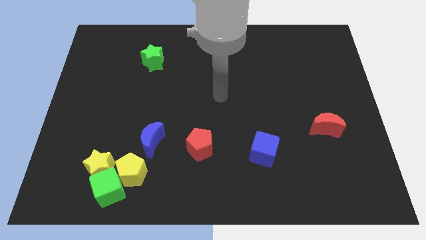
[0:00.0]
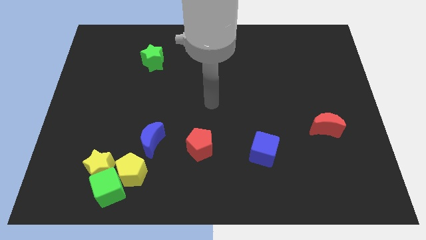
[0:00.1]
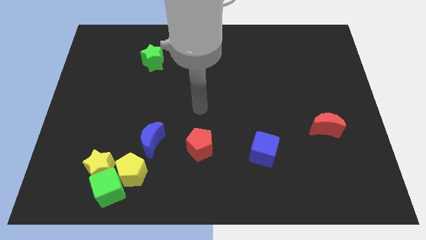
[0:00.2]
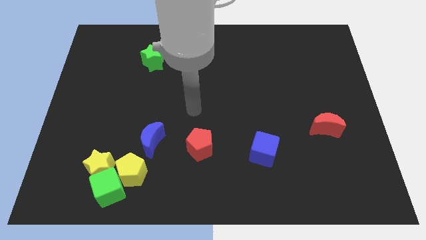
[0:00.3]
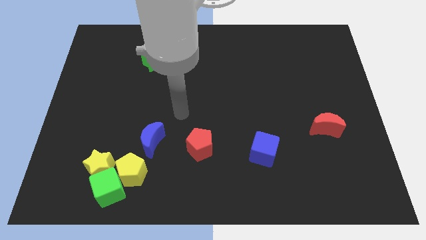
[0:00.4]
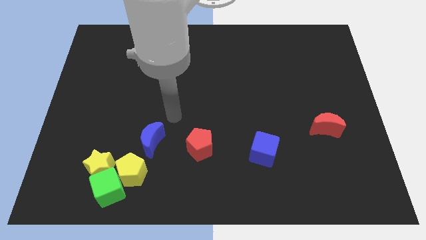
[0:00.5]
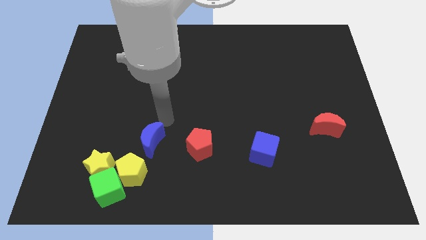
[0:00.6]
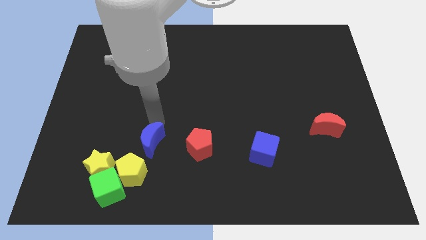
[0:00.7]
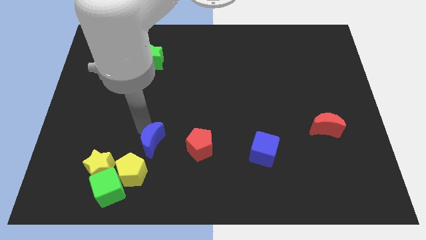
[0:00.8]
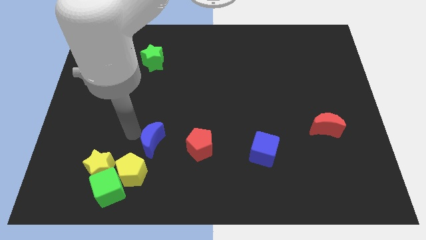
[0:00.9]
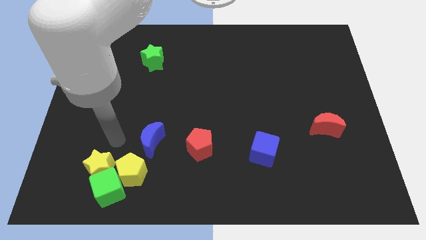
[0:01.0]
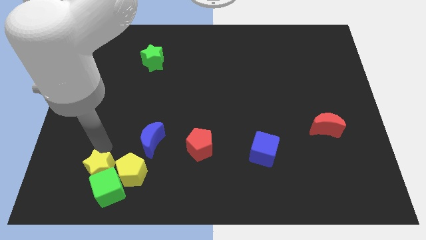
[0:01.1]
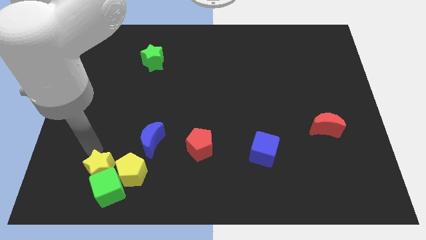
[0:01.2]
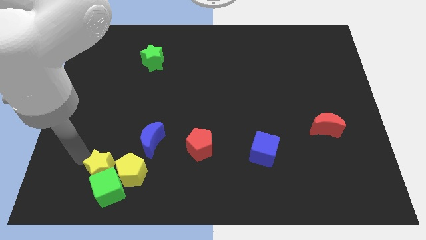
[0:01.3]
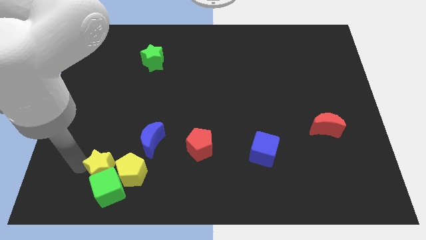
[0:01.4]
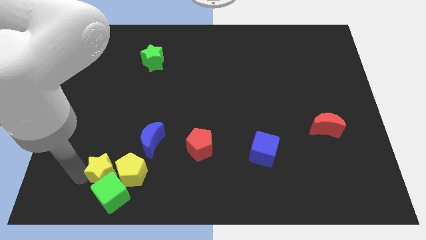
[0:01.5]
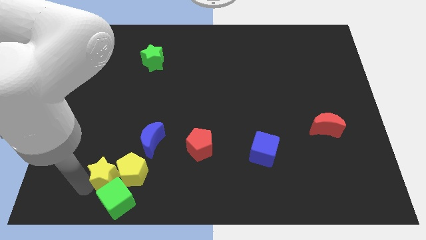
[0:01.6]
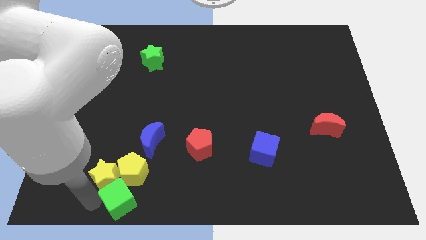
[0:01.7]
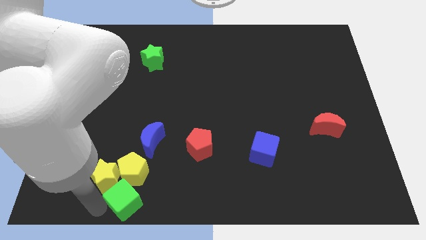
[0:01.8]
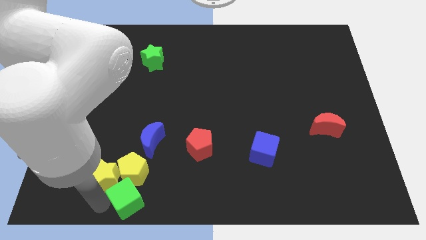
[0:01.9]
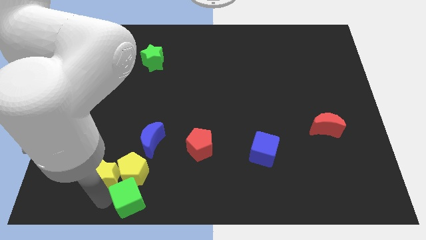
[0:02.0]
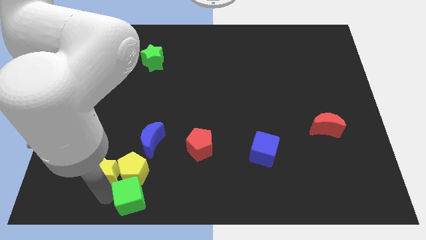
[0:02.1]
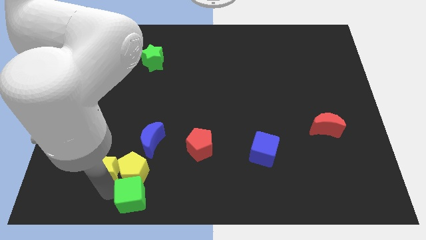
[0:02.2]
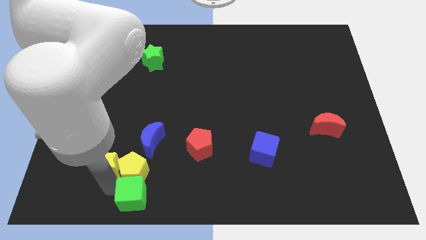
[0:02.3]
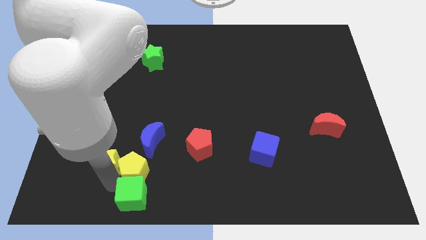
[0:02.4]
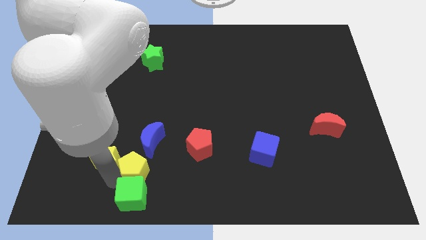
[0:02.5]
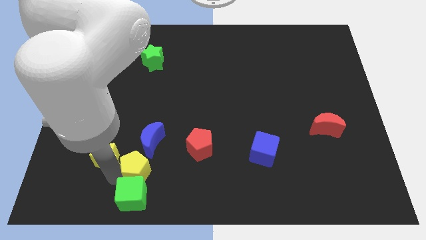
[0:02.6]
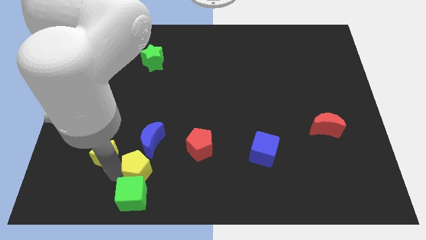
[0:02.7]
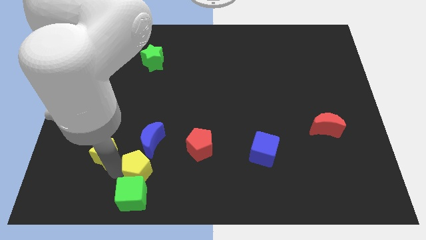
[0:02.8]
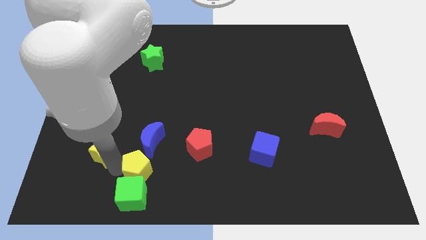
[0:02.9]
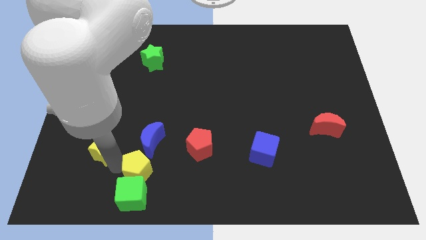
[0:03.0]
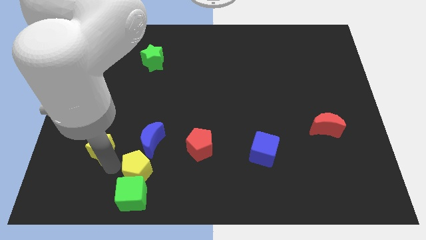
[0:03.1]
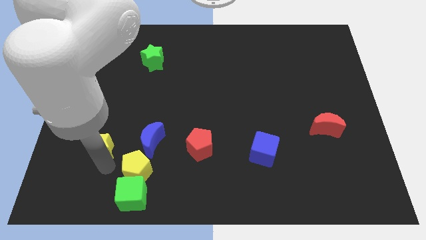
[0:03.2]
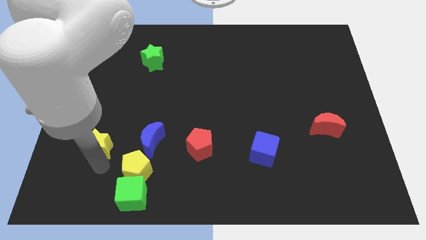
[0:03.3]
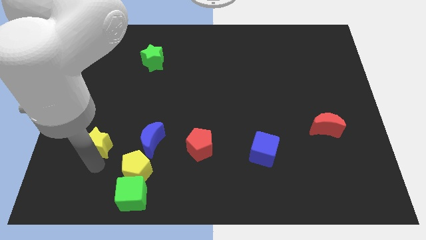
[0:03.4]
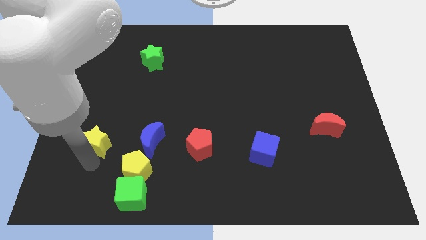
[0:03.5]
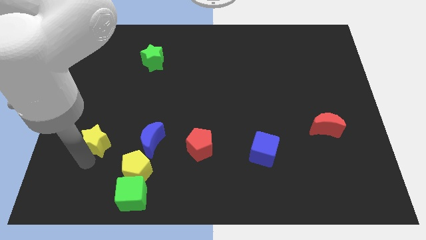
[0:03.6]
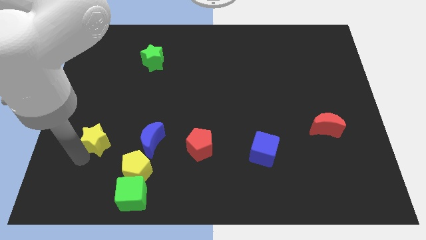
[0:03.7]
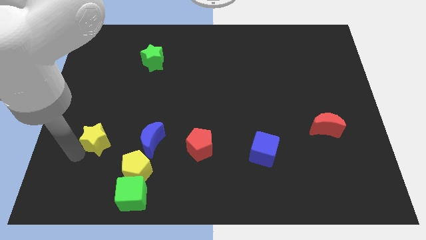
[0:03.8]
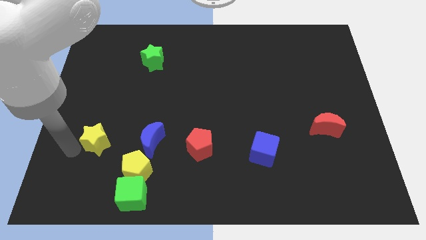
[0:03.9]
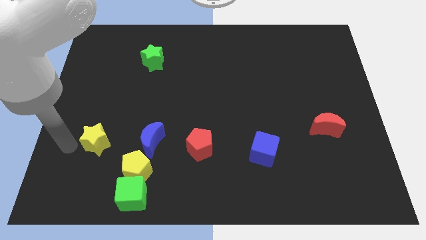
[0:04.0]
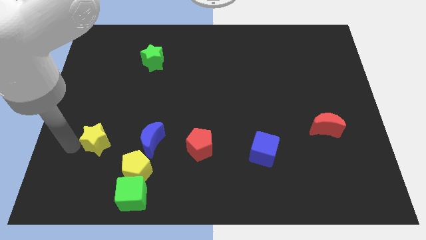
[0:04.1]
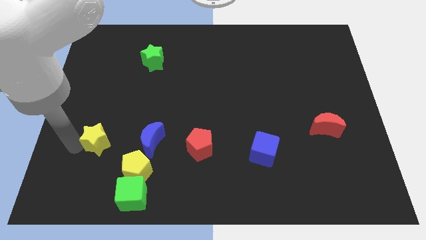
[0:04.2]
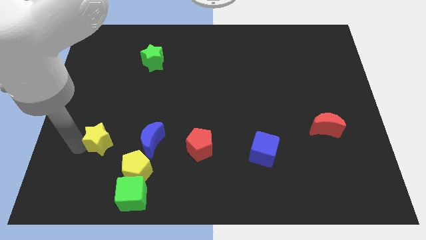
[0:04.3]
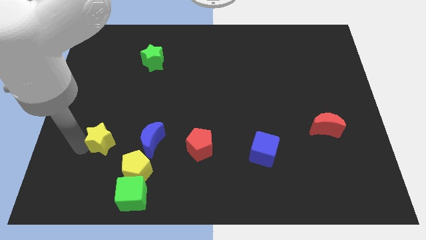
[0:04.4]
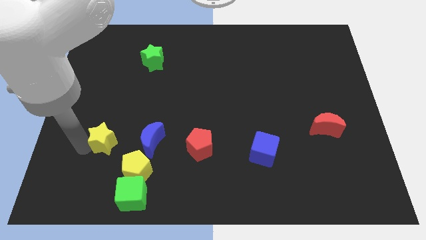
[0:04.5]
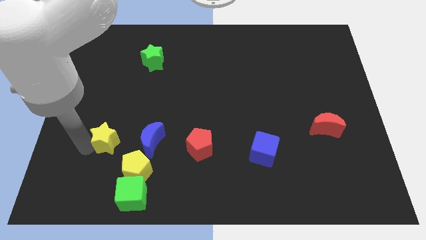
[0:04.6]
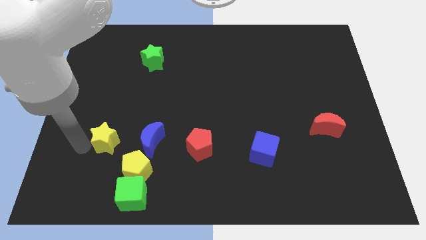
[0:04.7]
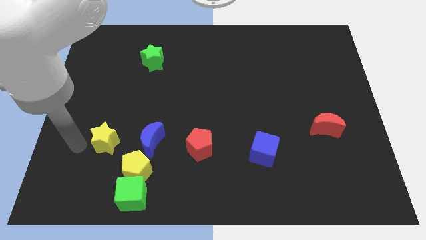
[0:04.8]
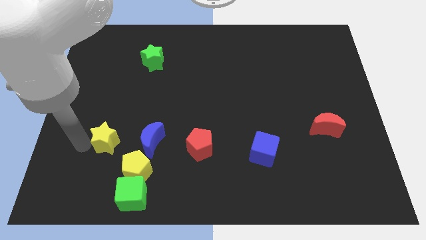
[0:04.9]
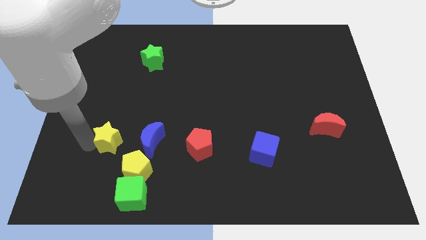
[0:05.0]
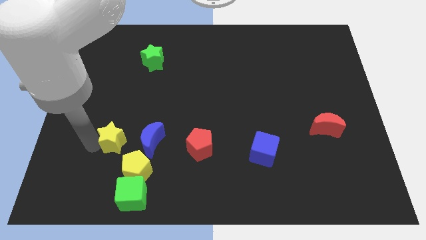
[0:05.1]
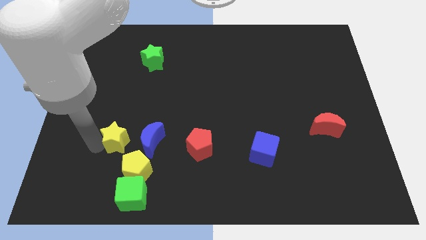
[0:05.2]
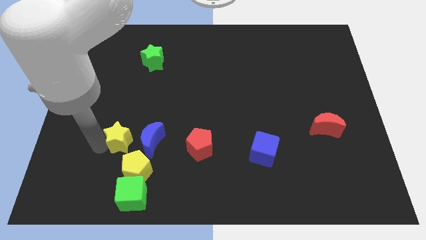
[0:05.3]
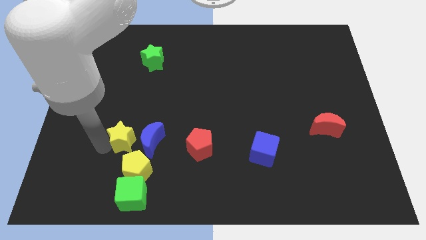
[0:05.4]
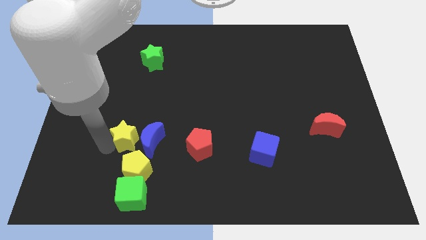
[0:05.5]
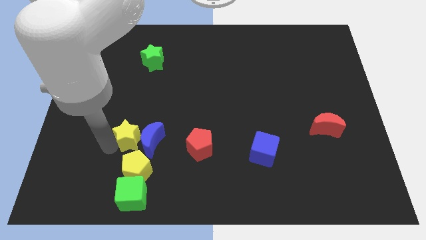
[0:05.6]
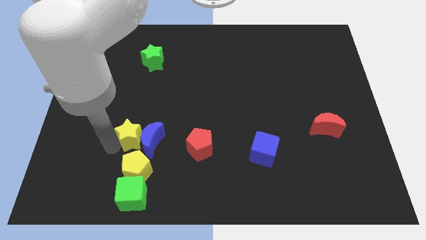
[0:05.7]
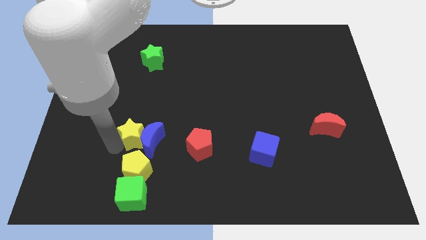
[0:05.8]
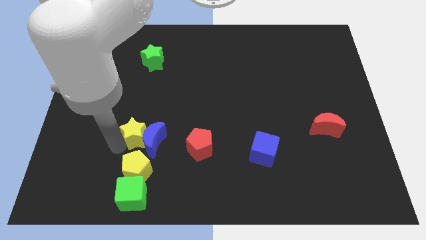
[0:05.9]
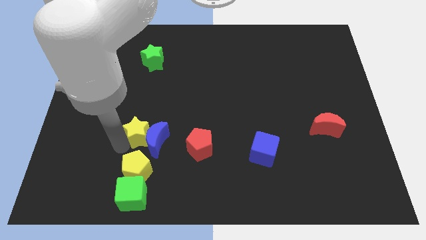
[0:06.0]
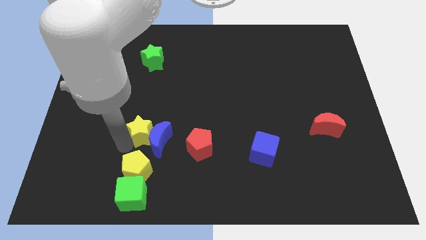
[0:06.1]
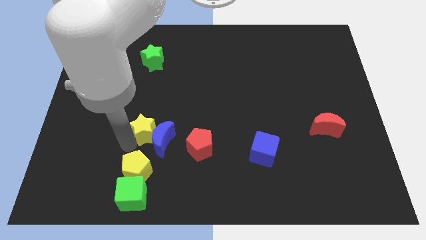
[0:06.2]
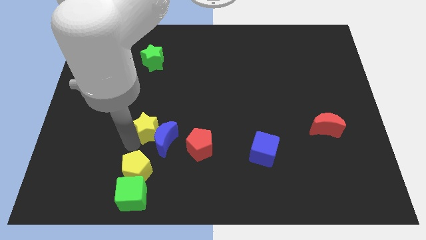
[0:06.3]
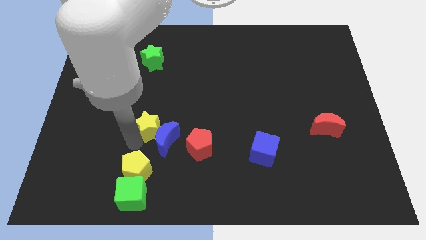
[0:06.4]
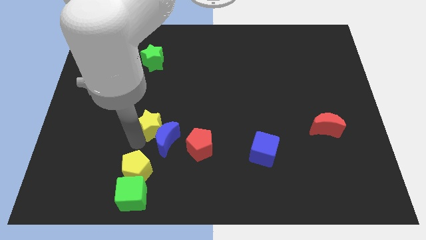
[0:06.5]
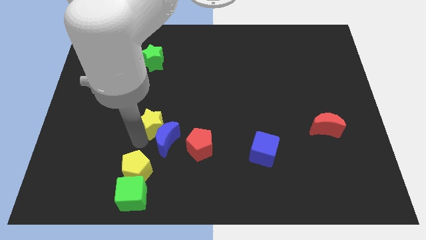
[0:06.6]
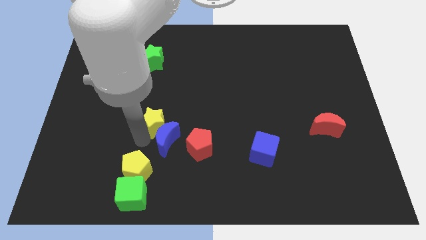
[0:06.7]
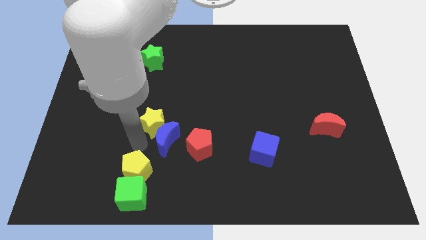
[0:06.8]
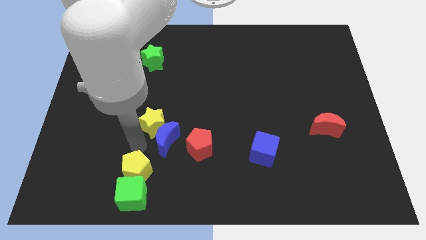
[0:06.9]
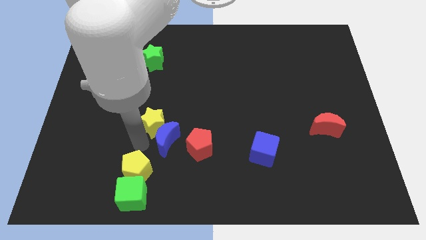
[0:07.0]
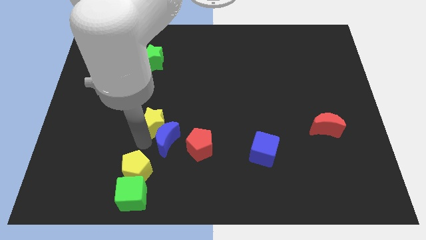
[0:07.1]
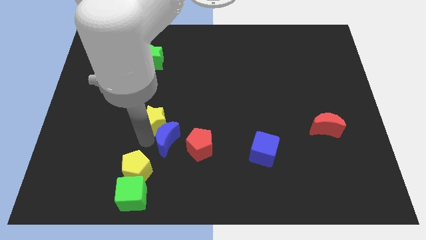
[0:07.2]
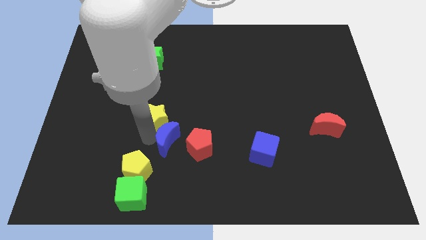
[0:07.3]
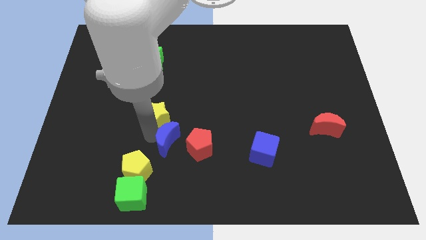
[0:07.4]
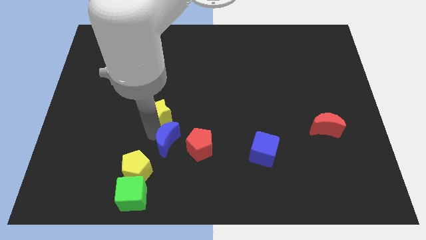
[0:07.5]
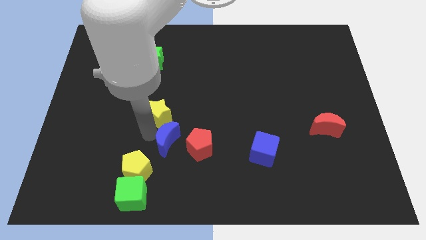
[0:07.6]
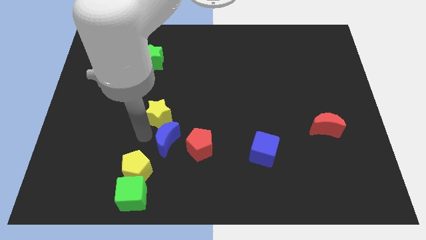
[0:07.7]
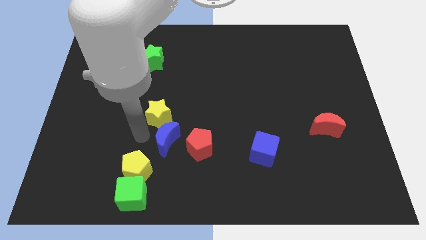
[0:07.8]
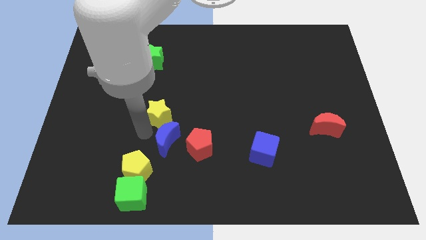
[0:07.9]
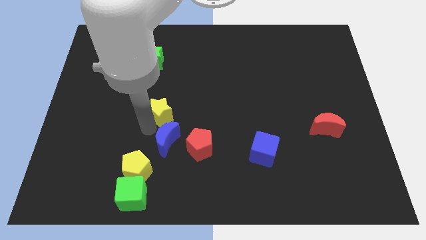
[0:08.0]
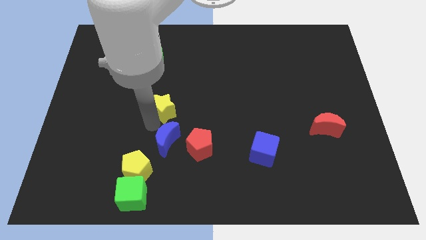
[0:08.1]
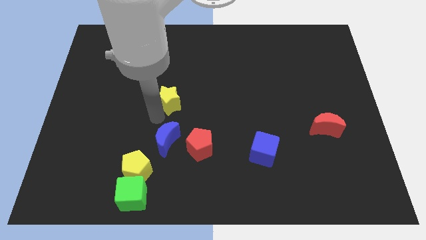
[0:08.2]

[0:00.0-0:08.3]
slide the yellow star up and to the right
